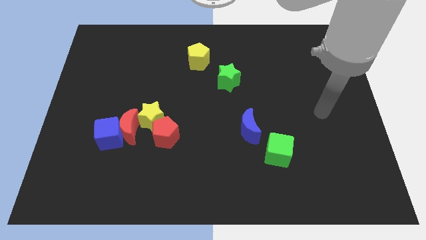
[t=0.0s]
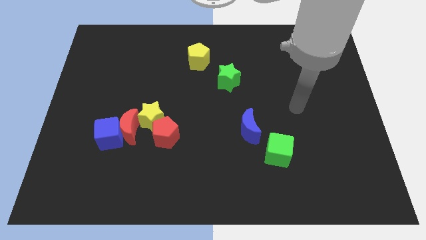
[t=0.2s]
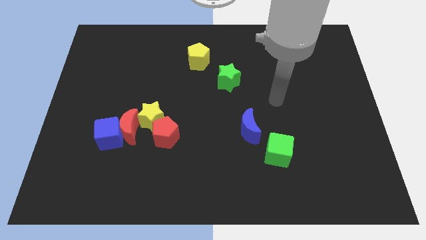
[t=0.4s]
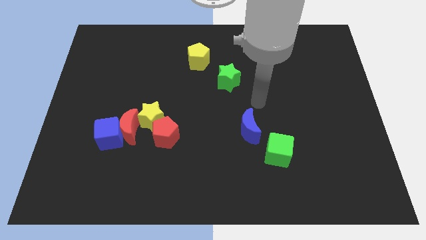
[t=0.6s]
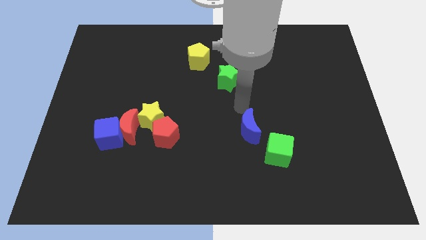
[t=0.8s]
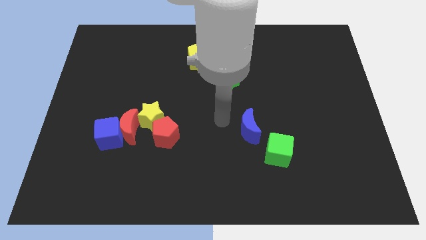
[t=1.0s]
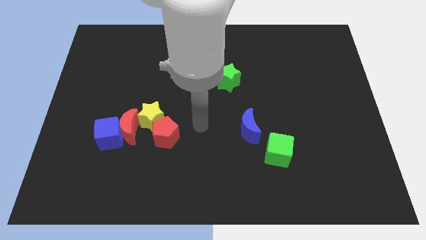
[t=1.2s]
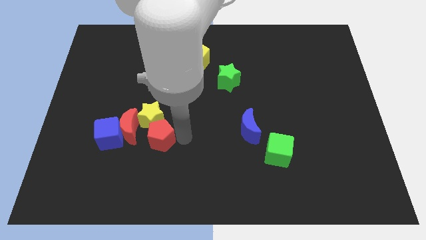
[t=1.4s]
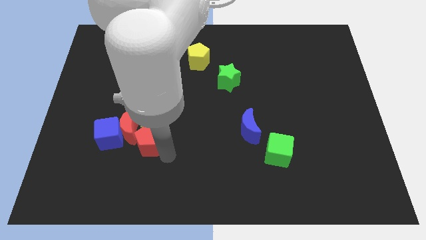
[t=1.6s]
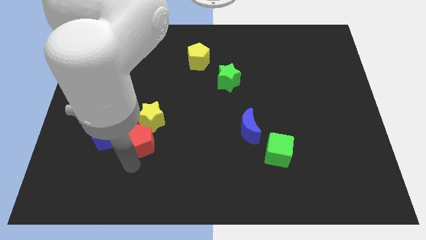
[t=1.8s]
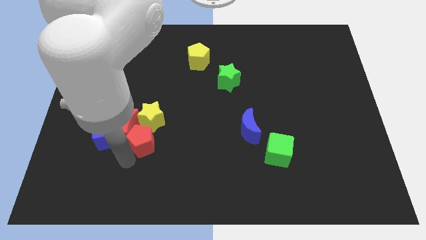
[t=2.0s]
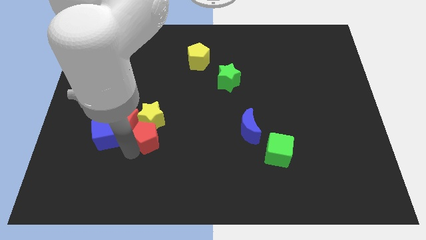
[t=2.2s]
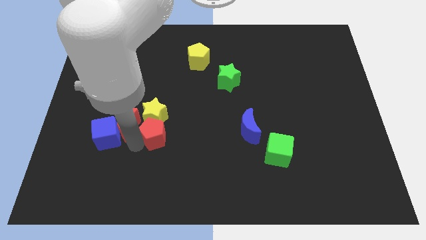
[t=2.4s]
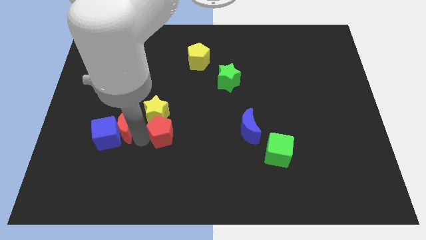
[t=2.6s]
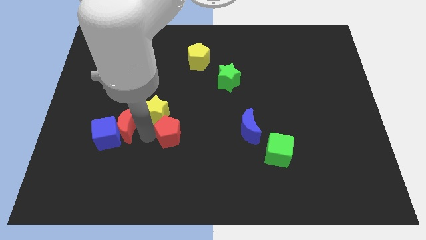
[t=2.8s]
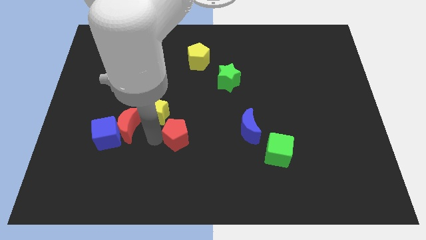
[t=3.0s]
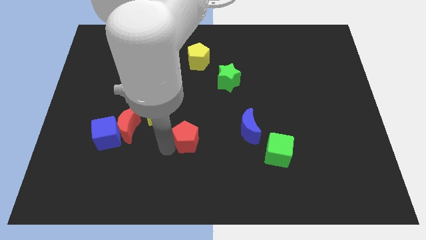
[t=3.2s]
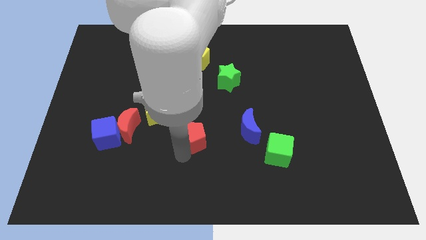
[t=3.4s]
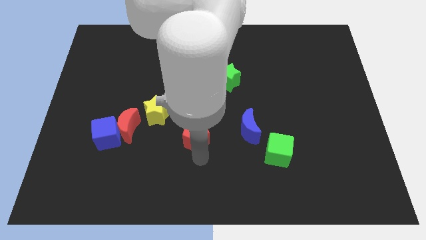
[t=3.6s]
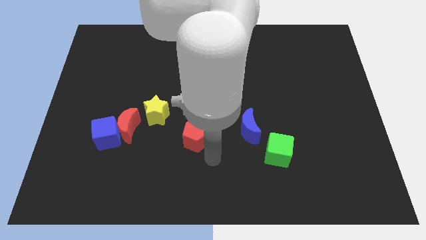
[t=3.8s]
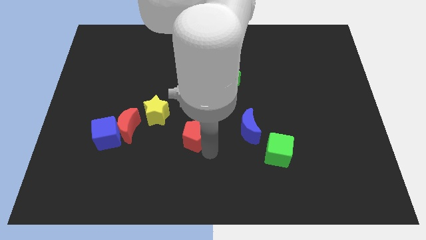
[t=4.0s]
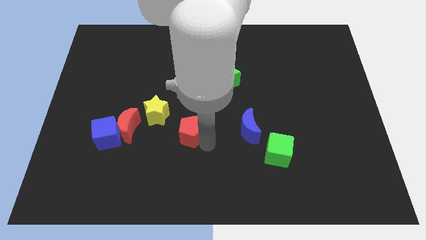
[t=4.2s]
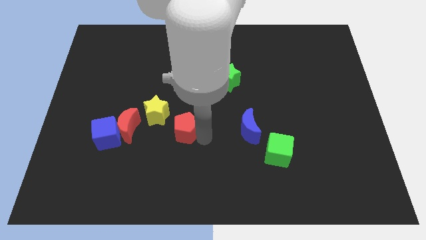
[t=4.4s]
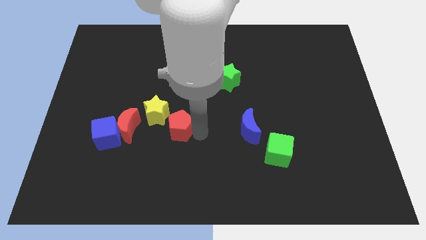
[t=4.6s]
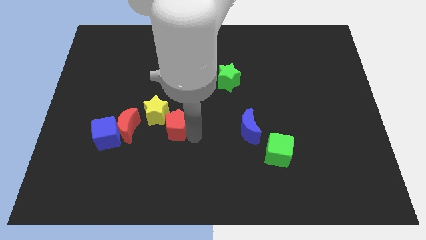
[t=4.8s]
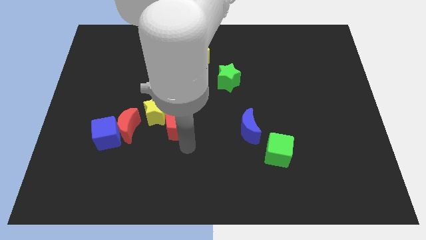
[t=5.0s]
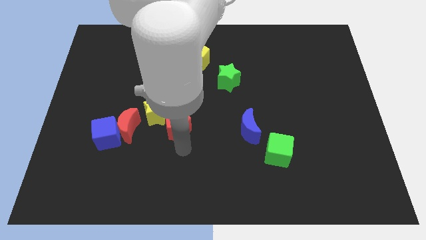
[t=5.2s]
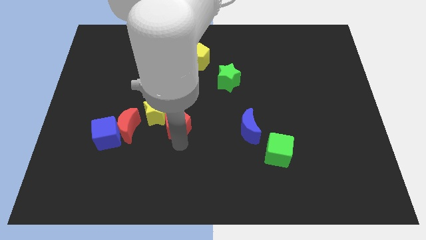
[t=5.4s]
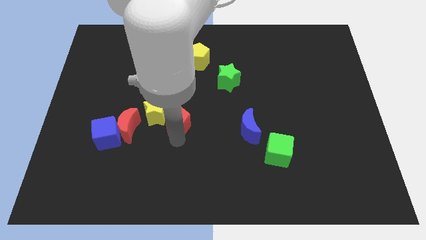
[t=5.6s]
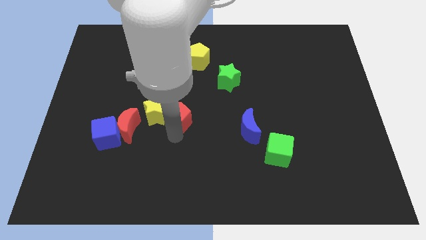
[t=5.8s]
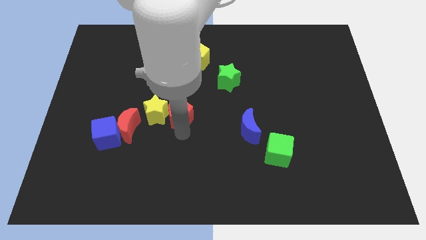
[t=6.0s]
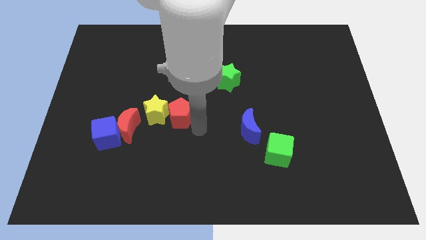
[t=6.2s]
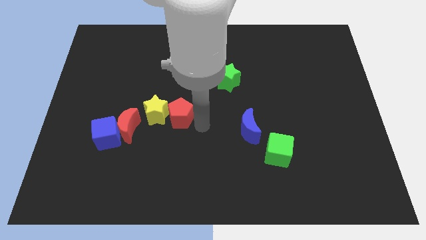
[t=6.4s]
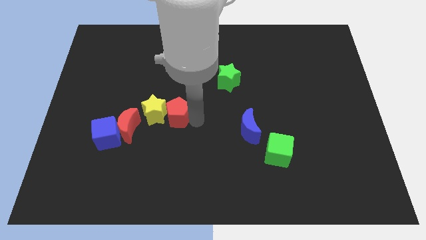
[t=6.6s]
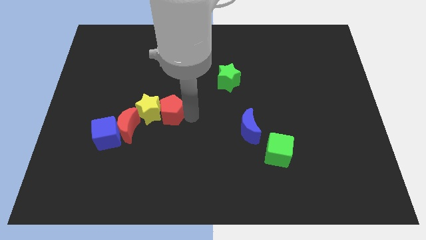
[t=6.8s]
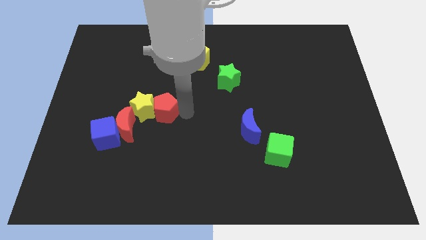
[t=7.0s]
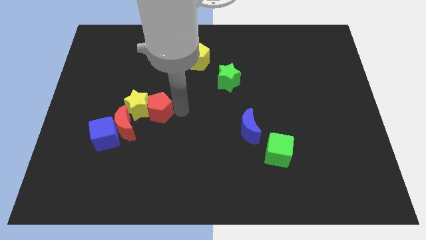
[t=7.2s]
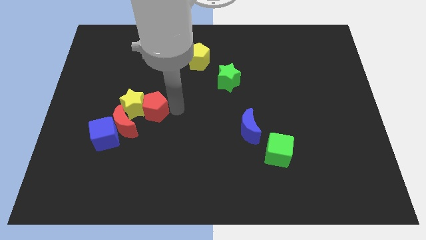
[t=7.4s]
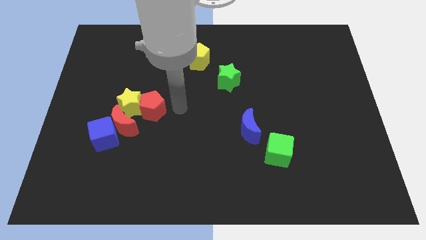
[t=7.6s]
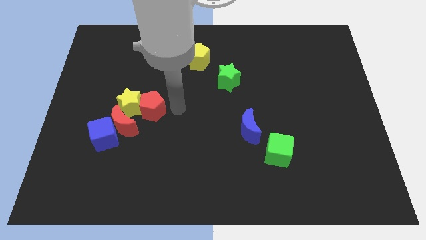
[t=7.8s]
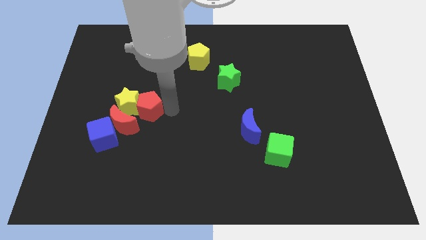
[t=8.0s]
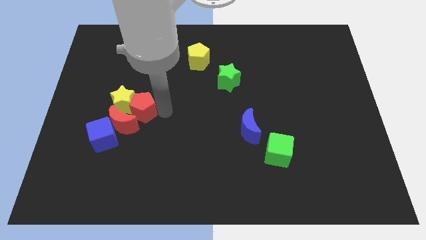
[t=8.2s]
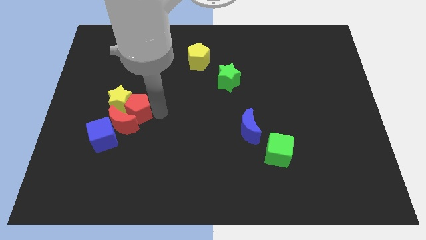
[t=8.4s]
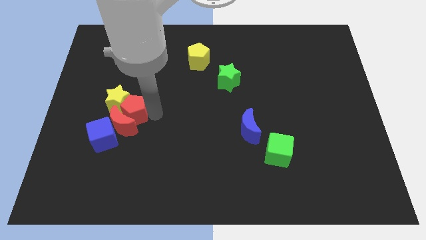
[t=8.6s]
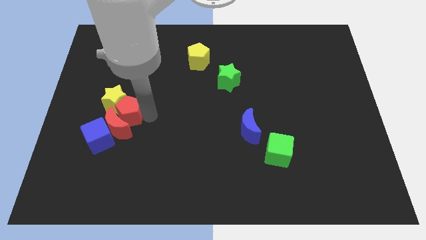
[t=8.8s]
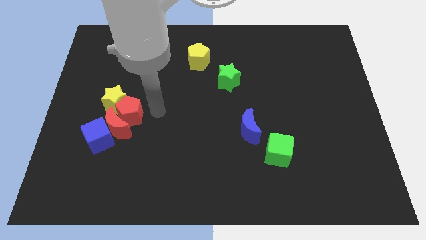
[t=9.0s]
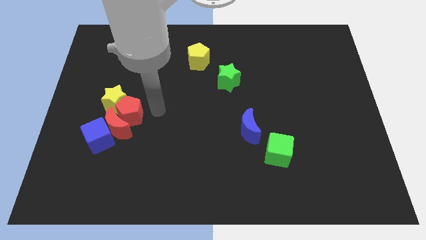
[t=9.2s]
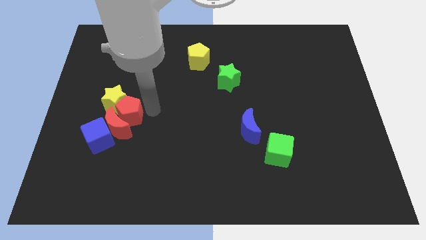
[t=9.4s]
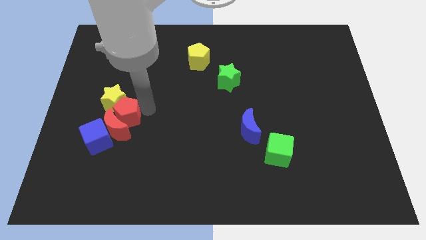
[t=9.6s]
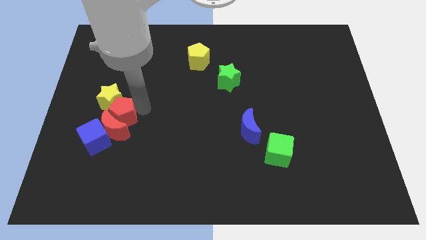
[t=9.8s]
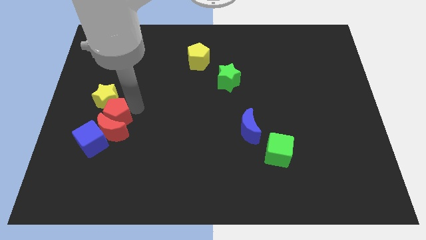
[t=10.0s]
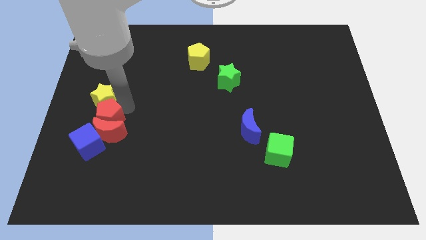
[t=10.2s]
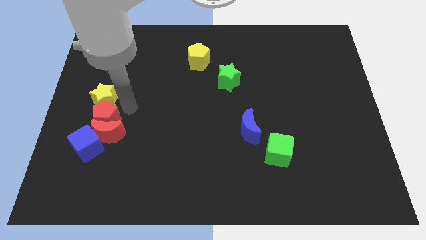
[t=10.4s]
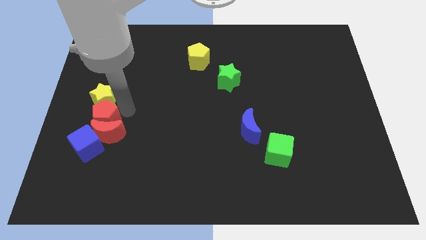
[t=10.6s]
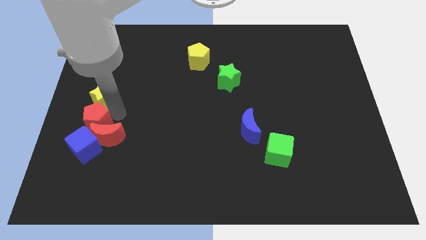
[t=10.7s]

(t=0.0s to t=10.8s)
move the red pentagon left of the red moon

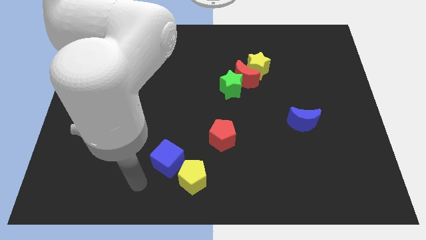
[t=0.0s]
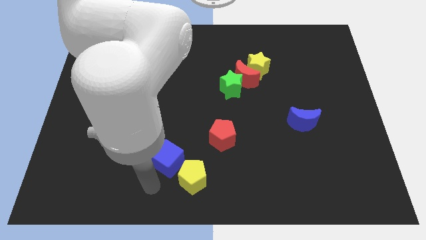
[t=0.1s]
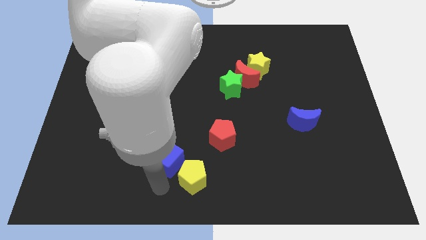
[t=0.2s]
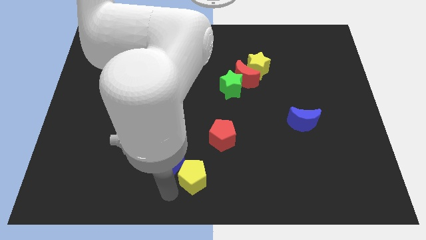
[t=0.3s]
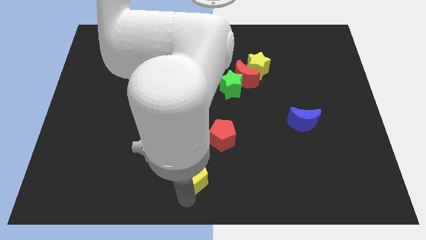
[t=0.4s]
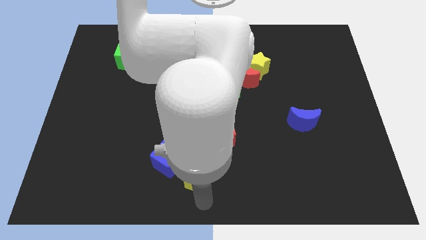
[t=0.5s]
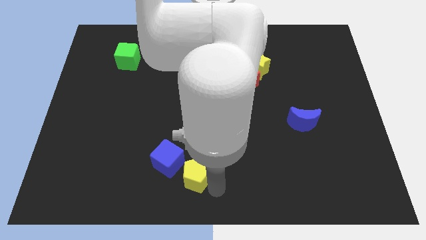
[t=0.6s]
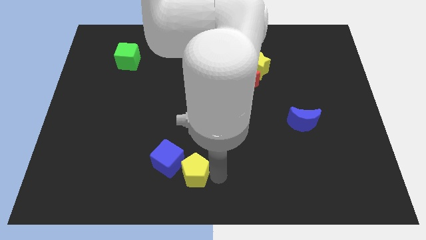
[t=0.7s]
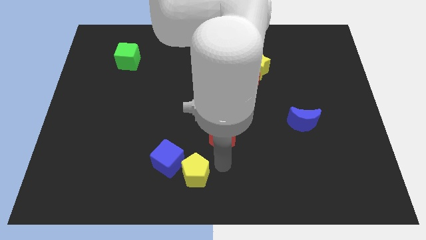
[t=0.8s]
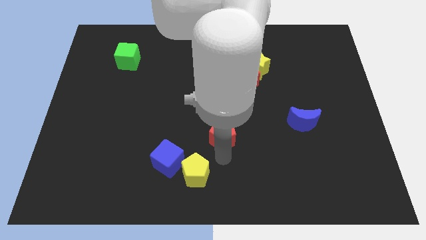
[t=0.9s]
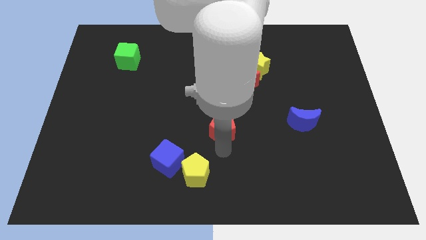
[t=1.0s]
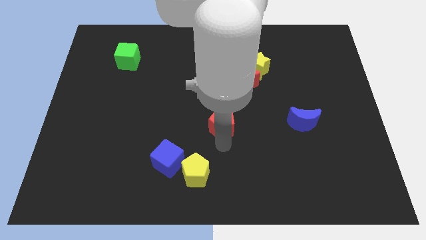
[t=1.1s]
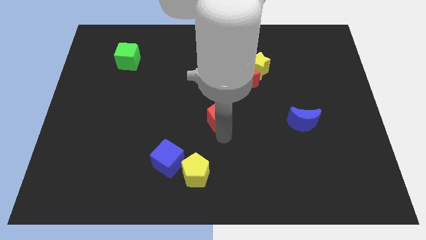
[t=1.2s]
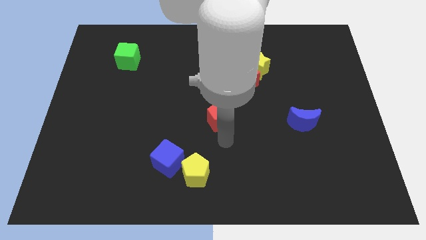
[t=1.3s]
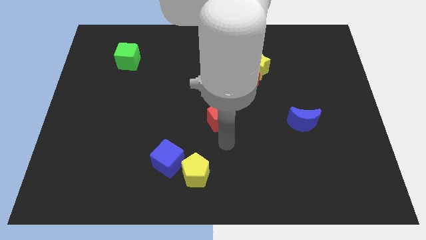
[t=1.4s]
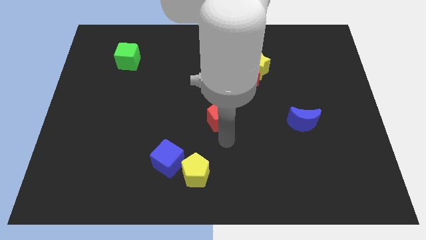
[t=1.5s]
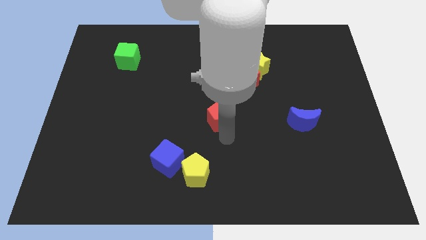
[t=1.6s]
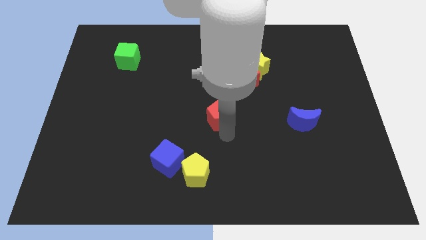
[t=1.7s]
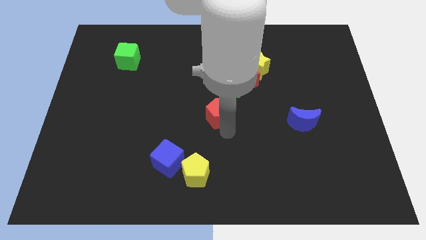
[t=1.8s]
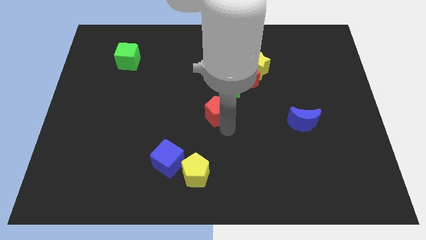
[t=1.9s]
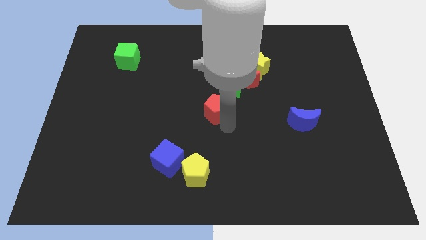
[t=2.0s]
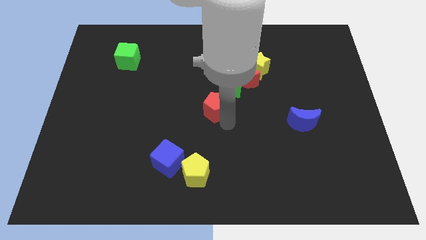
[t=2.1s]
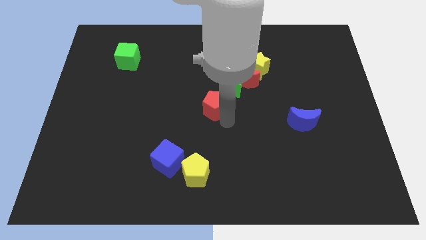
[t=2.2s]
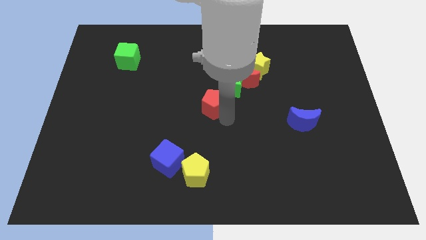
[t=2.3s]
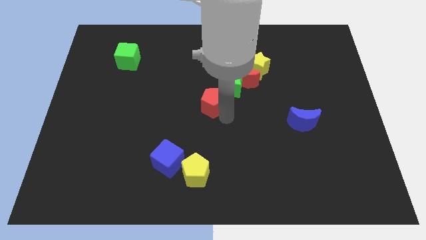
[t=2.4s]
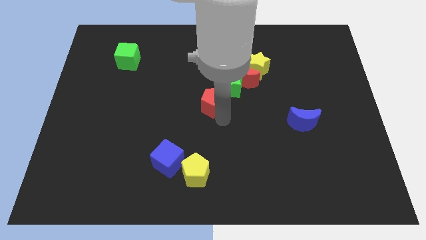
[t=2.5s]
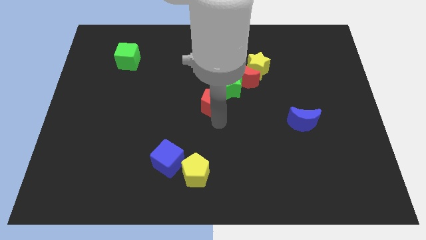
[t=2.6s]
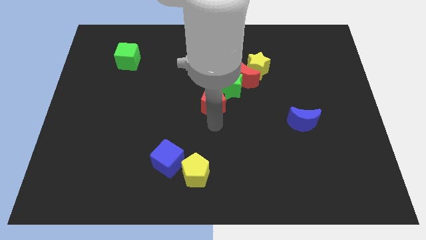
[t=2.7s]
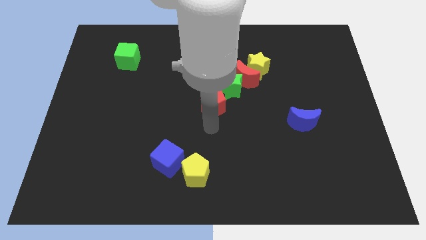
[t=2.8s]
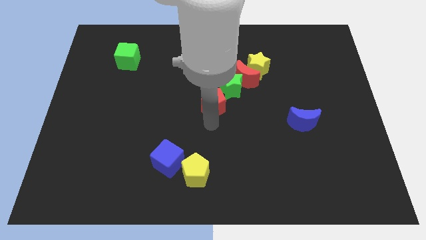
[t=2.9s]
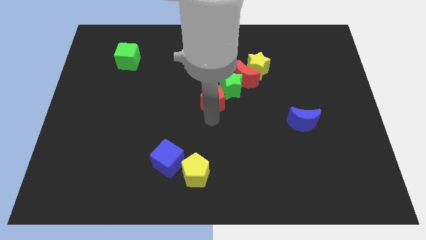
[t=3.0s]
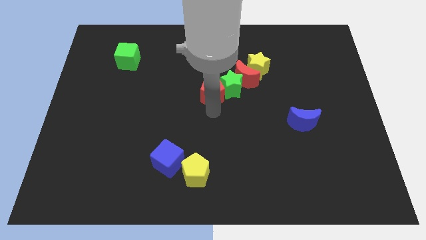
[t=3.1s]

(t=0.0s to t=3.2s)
move the red pentagon to the top left of the green star
